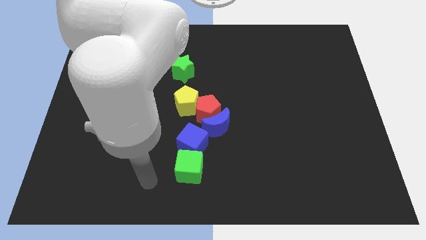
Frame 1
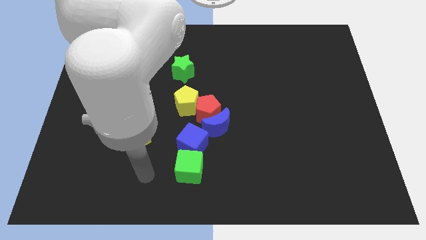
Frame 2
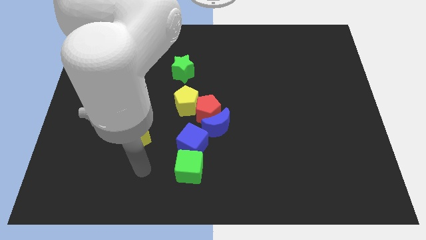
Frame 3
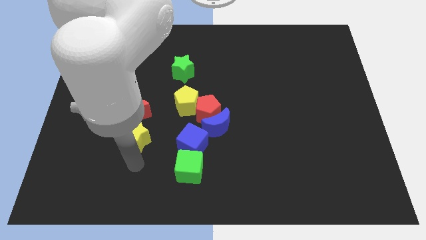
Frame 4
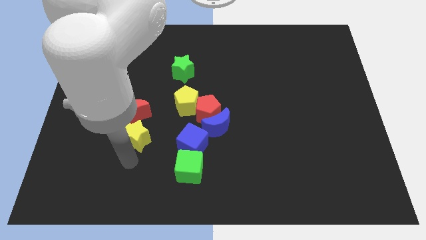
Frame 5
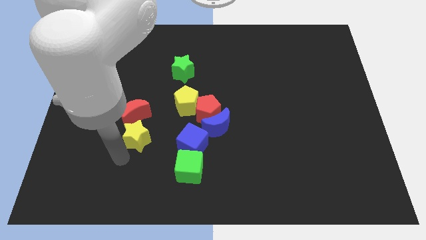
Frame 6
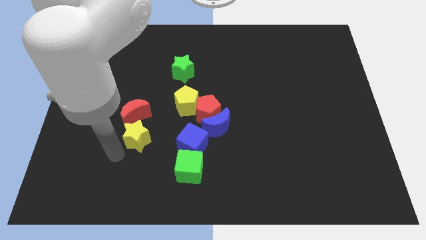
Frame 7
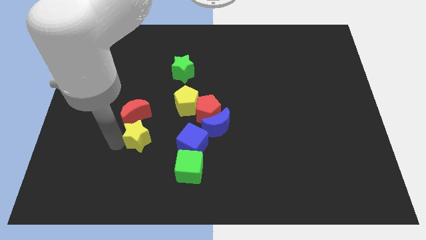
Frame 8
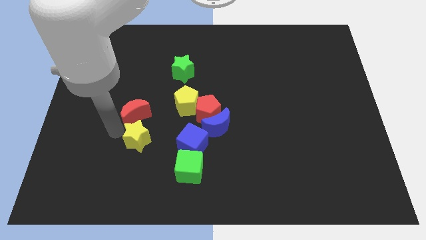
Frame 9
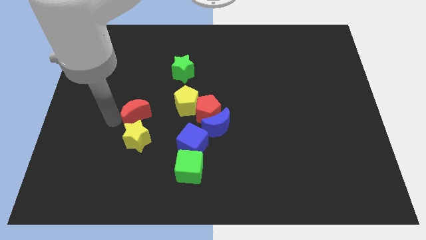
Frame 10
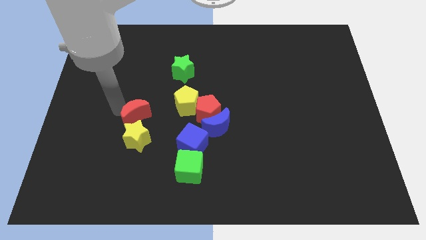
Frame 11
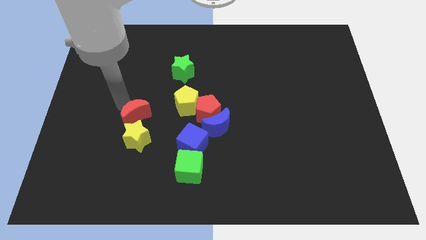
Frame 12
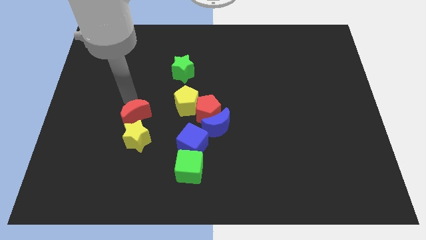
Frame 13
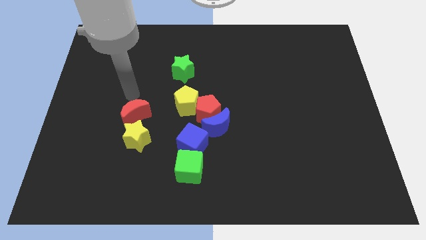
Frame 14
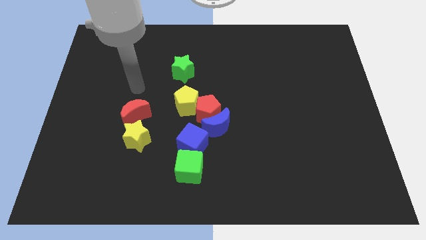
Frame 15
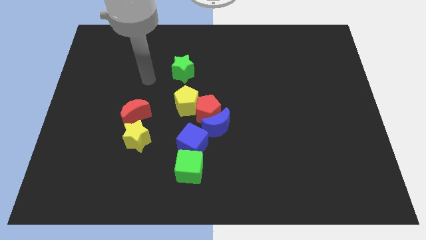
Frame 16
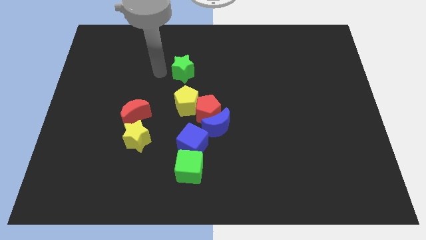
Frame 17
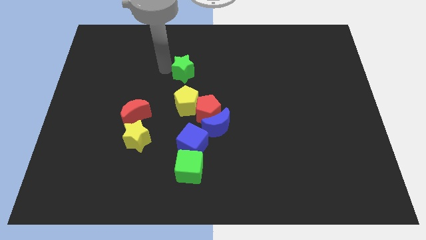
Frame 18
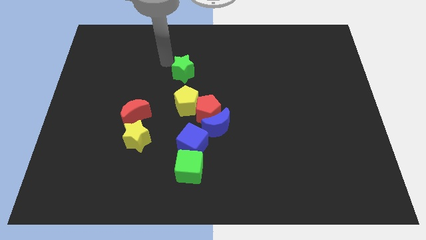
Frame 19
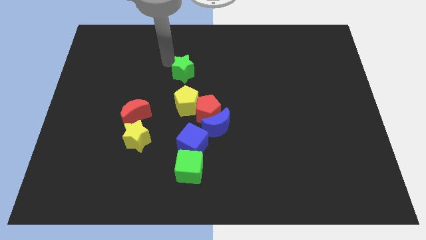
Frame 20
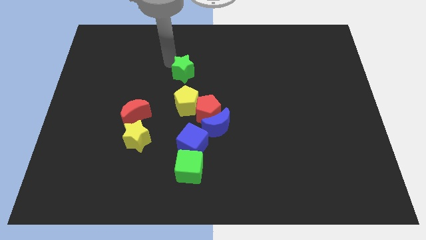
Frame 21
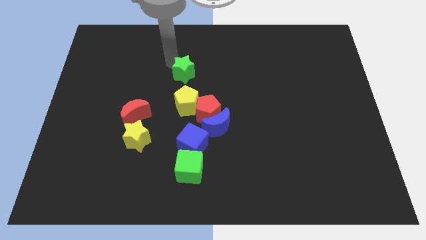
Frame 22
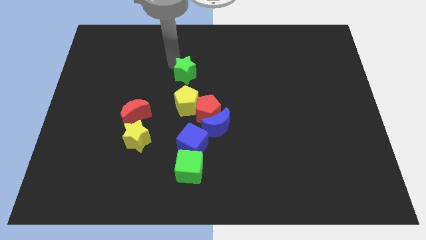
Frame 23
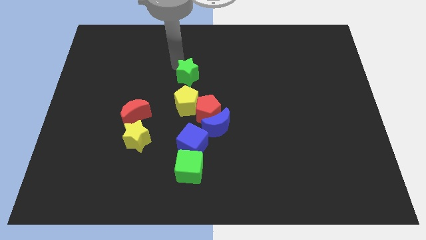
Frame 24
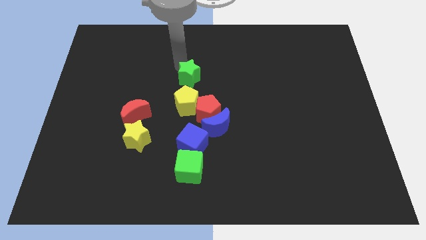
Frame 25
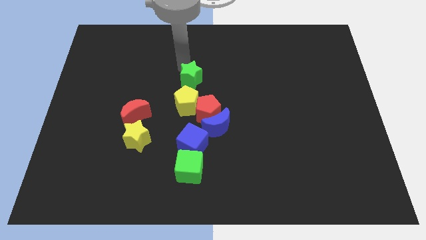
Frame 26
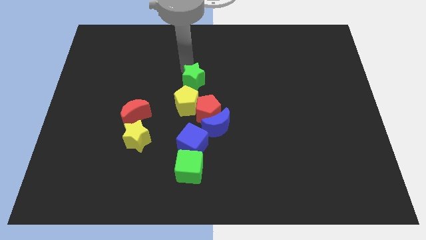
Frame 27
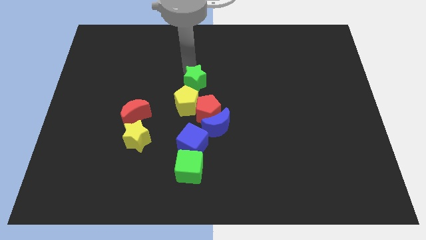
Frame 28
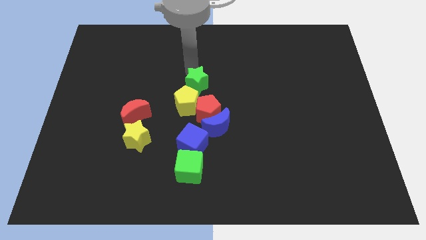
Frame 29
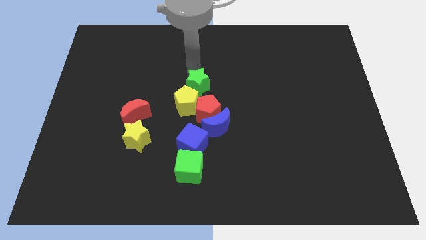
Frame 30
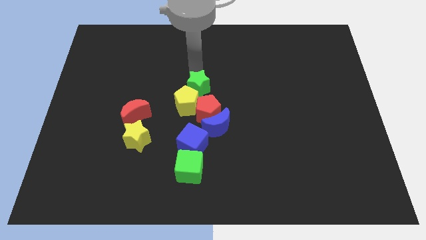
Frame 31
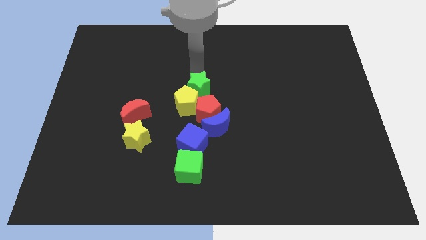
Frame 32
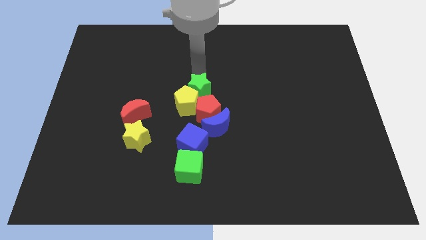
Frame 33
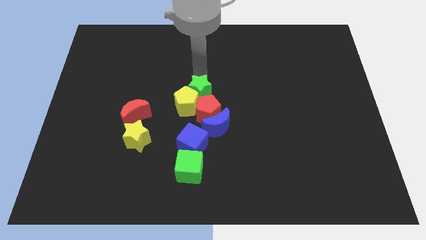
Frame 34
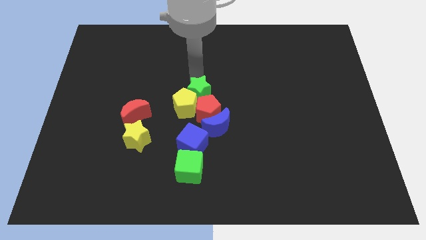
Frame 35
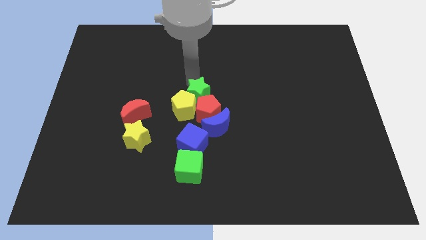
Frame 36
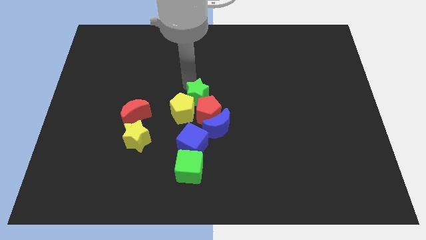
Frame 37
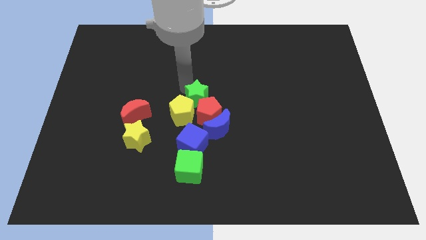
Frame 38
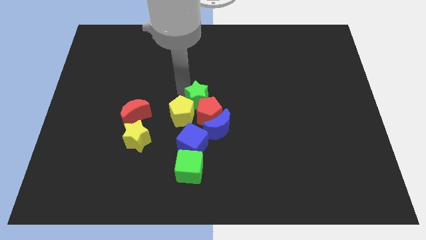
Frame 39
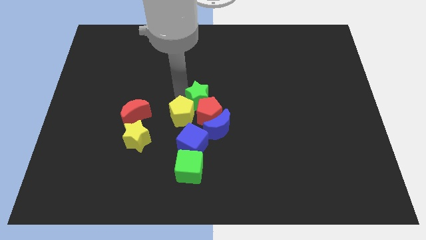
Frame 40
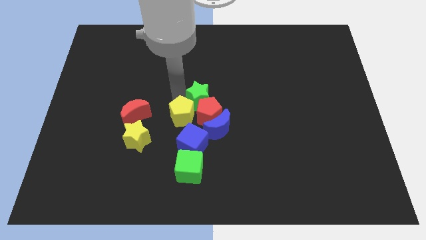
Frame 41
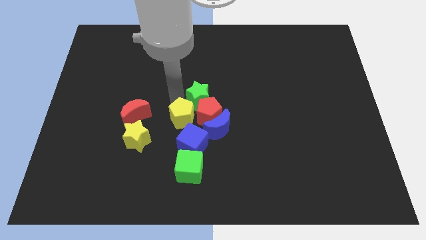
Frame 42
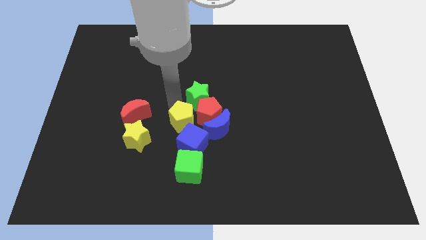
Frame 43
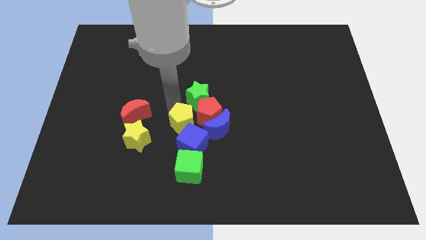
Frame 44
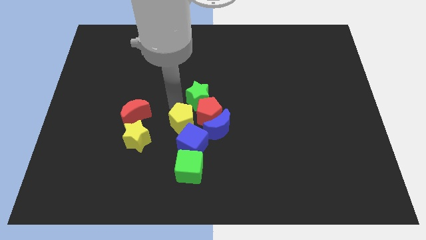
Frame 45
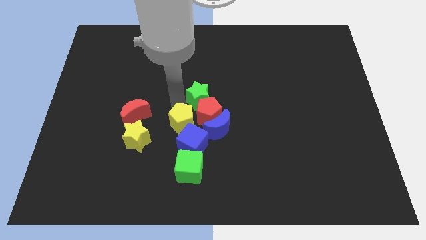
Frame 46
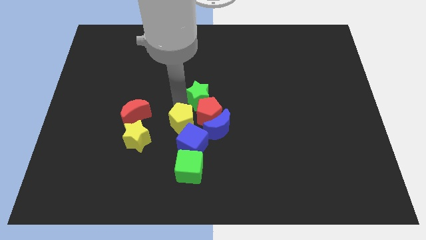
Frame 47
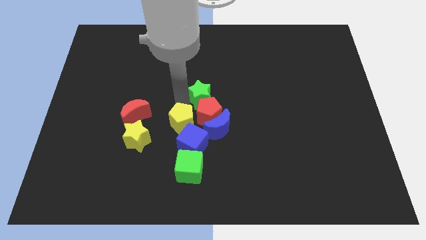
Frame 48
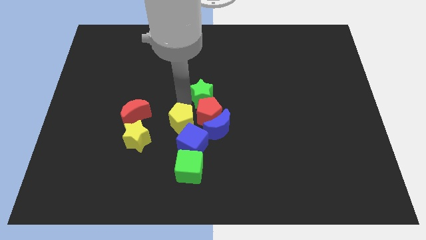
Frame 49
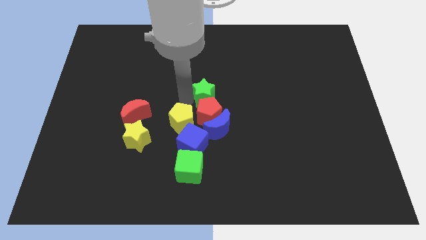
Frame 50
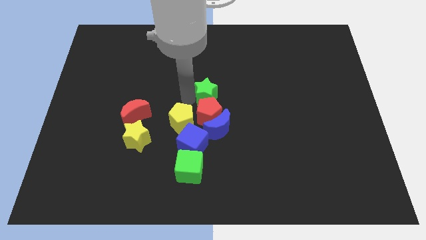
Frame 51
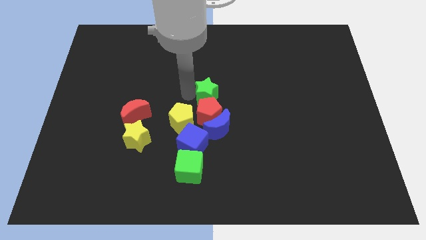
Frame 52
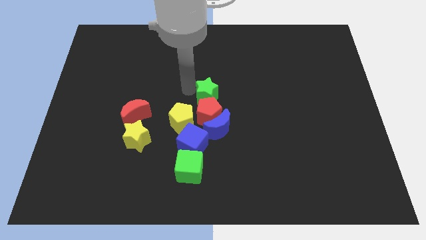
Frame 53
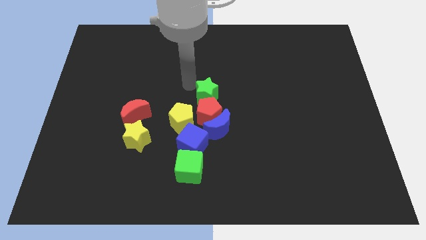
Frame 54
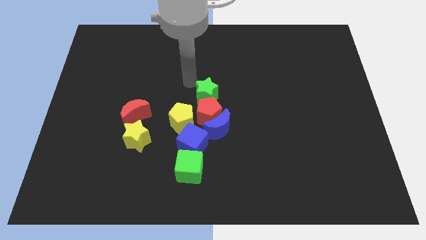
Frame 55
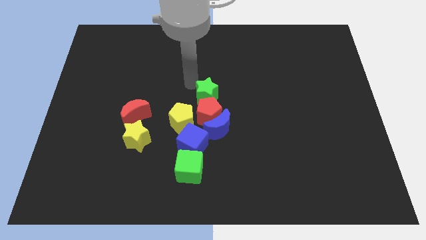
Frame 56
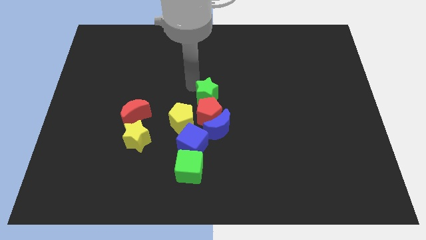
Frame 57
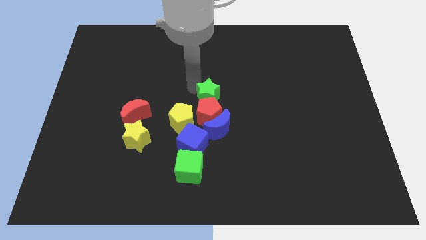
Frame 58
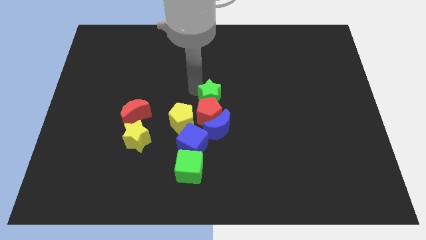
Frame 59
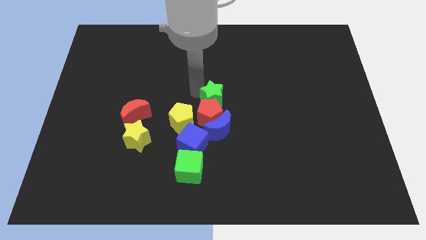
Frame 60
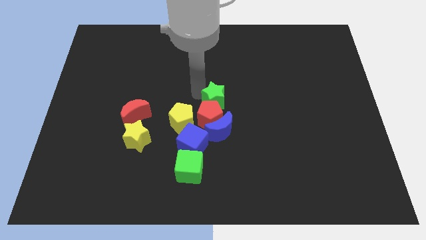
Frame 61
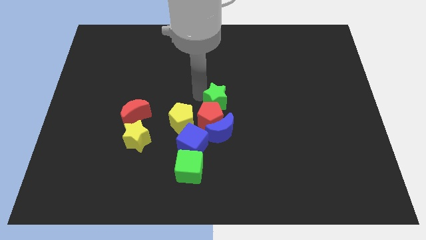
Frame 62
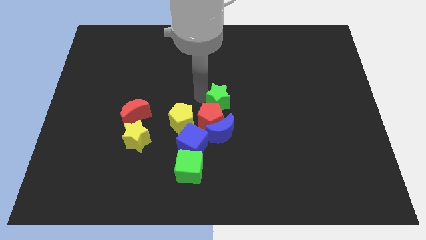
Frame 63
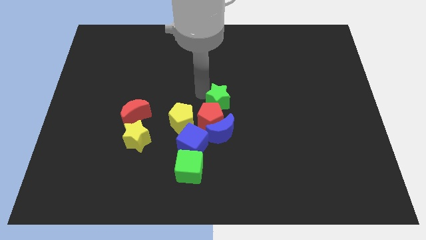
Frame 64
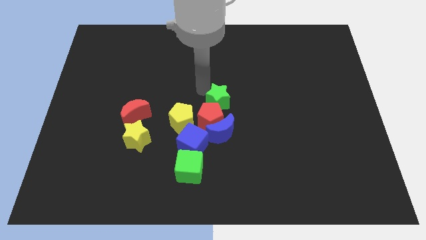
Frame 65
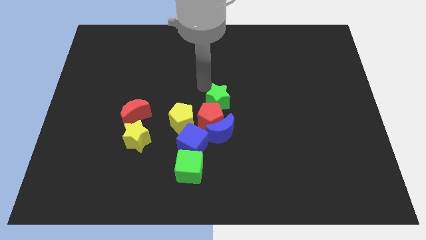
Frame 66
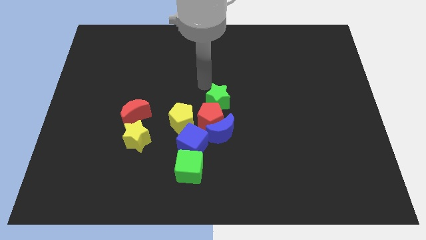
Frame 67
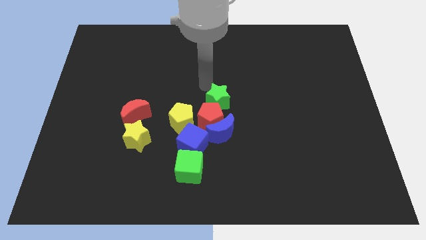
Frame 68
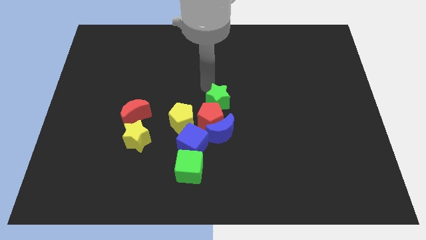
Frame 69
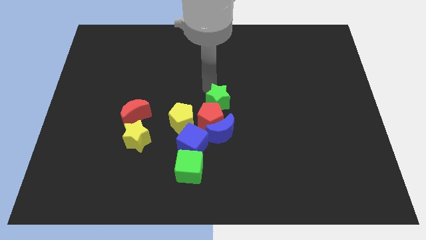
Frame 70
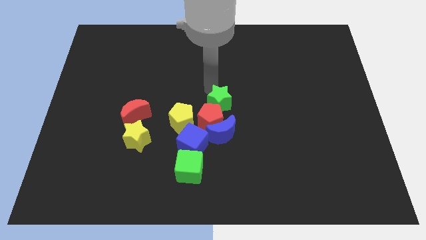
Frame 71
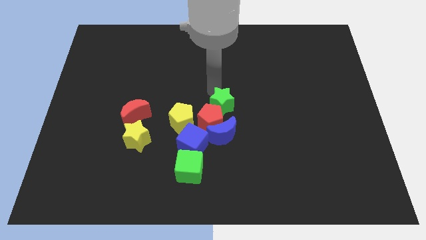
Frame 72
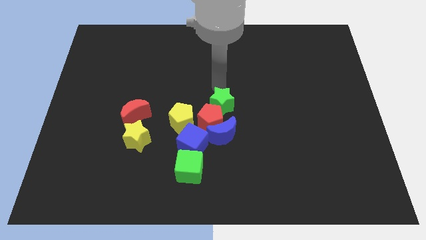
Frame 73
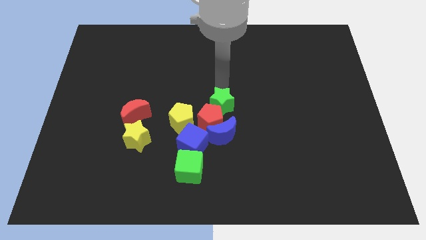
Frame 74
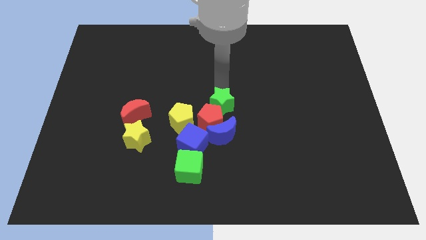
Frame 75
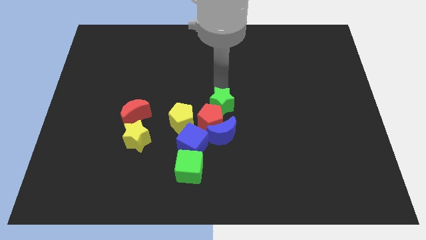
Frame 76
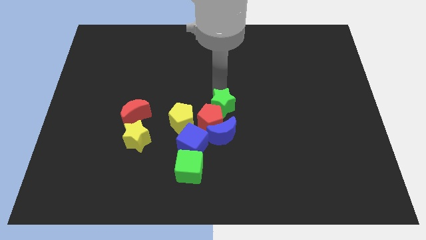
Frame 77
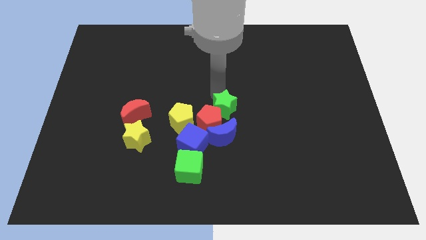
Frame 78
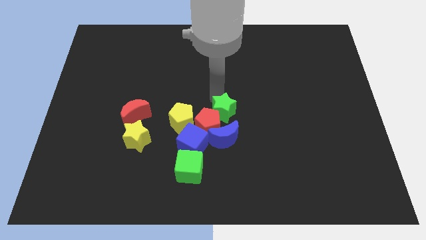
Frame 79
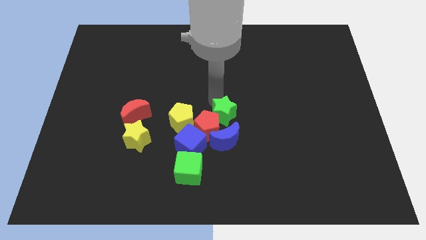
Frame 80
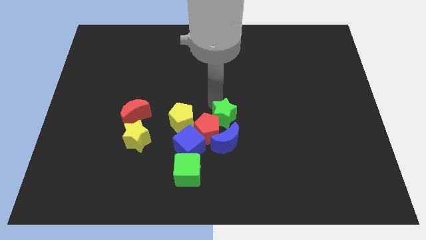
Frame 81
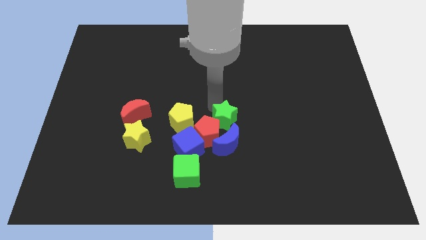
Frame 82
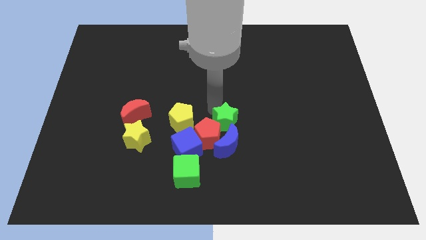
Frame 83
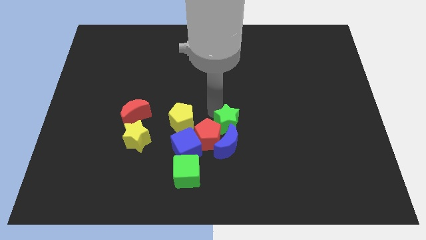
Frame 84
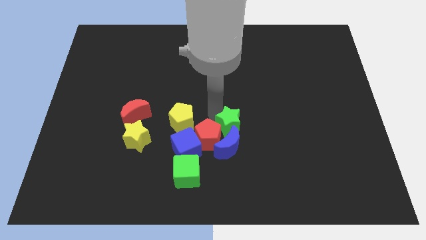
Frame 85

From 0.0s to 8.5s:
slide the green star to the blue moon
